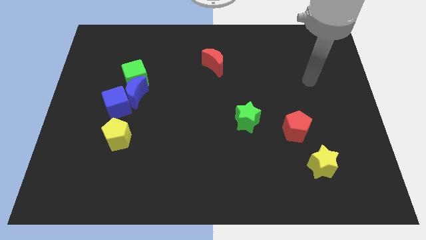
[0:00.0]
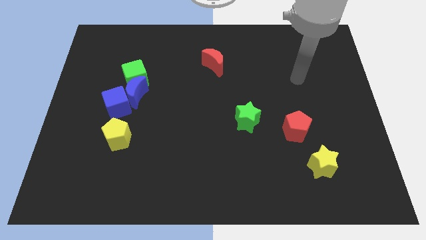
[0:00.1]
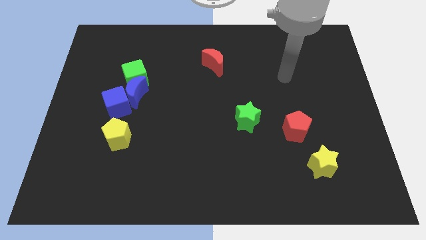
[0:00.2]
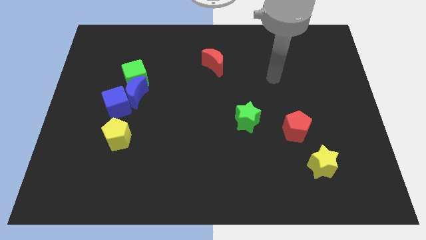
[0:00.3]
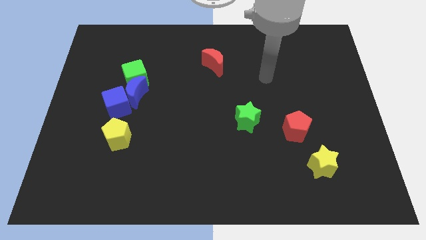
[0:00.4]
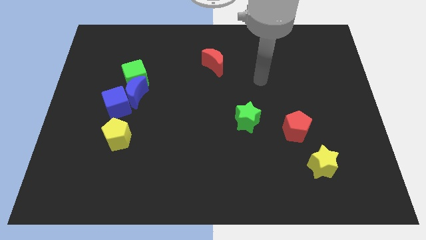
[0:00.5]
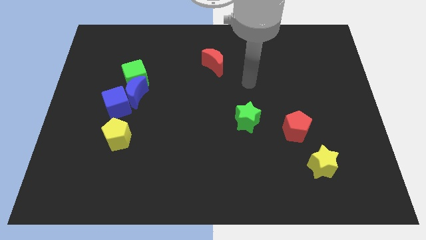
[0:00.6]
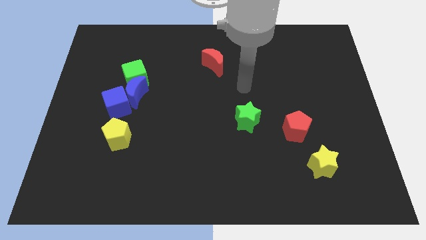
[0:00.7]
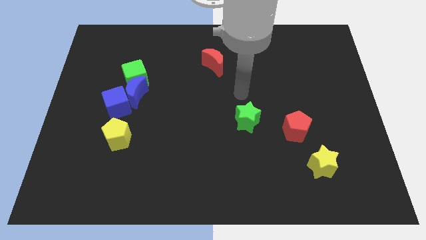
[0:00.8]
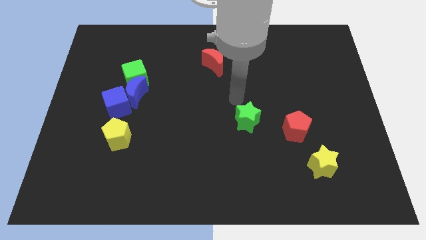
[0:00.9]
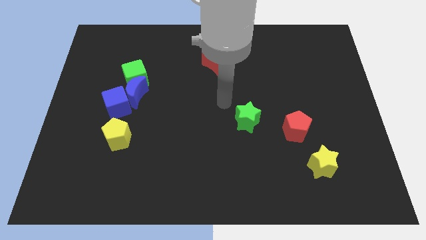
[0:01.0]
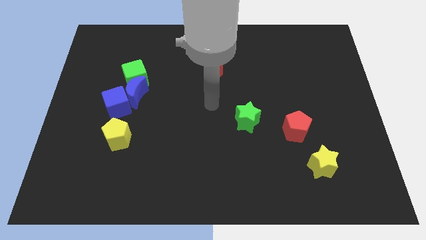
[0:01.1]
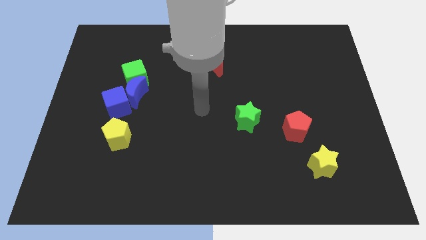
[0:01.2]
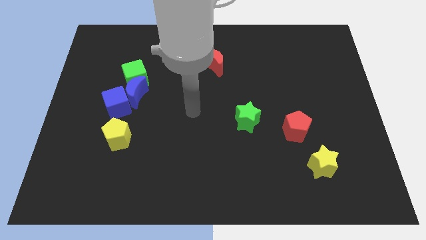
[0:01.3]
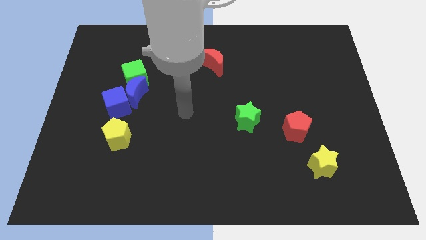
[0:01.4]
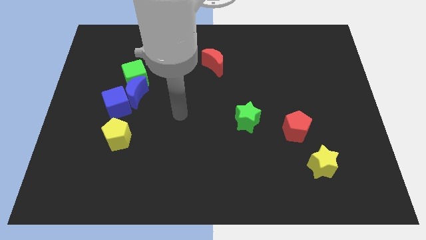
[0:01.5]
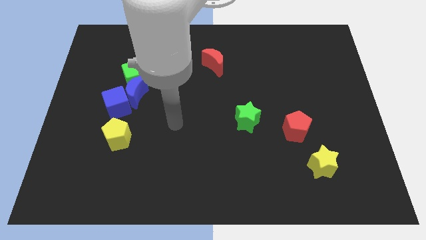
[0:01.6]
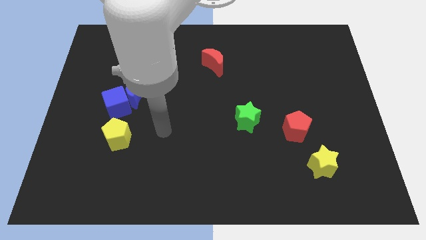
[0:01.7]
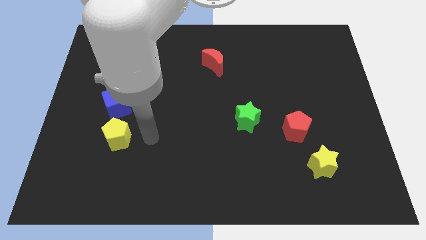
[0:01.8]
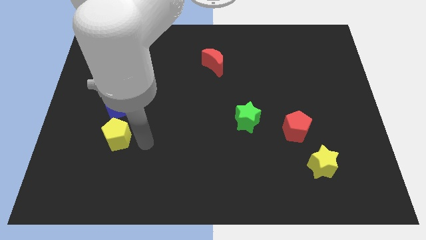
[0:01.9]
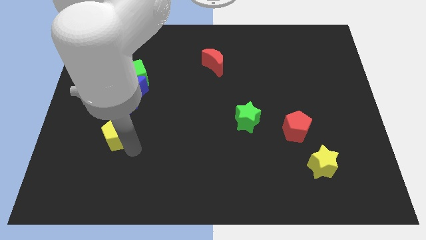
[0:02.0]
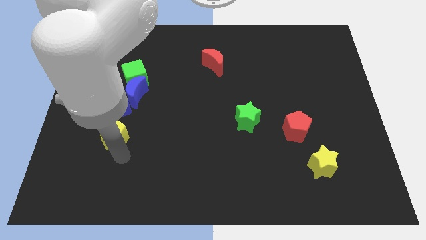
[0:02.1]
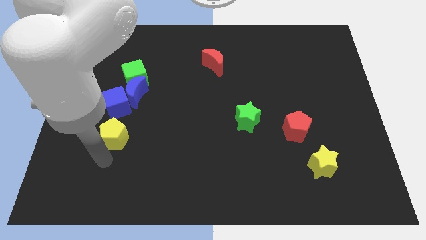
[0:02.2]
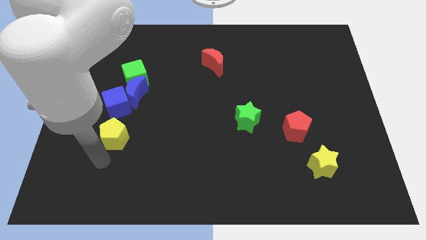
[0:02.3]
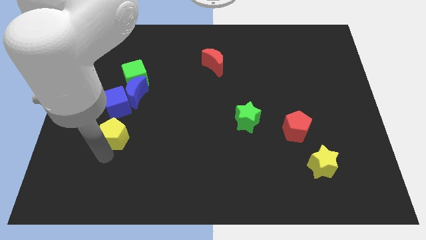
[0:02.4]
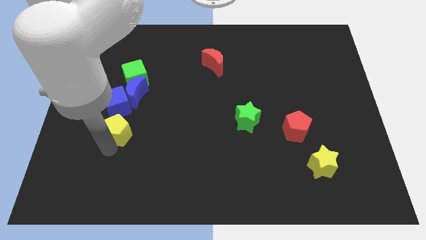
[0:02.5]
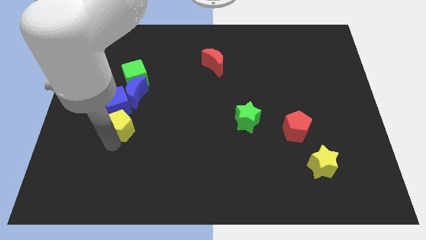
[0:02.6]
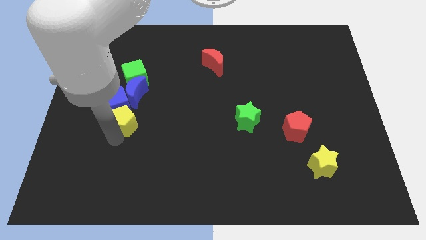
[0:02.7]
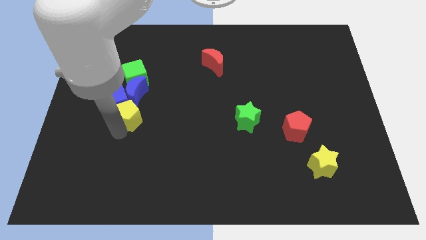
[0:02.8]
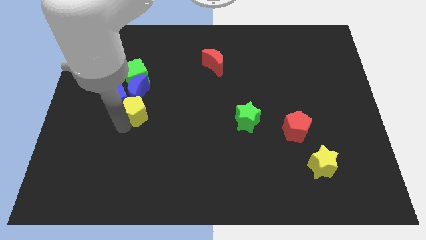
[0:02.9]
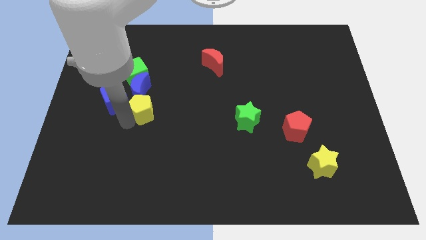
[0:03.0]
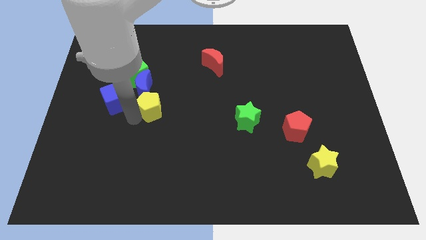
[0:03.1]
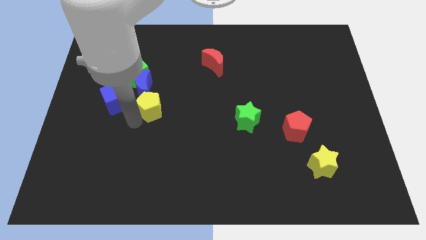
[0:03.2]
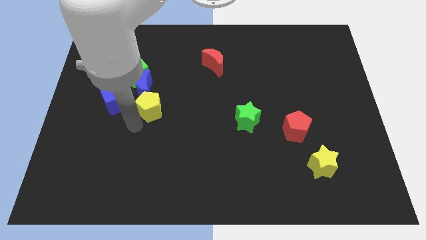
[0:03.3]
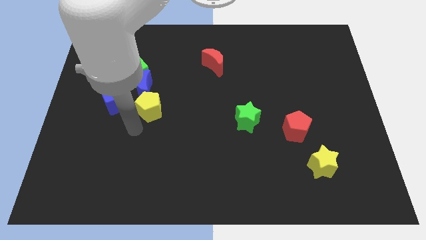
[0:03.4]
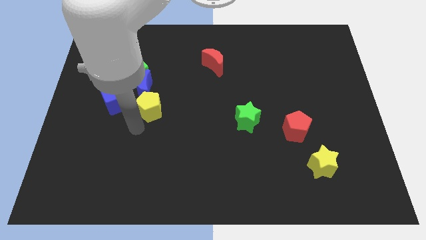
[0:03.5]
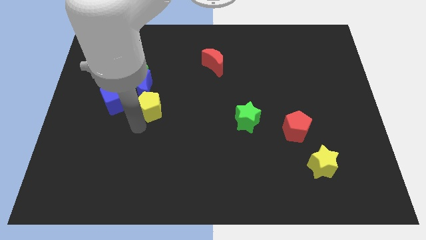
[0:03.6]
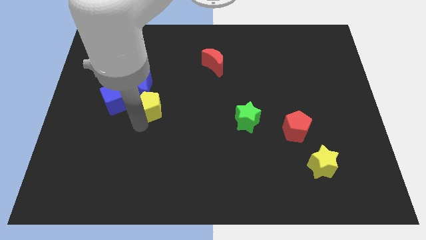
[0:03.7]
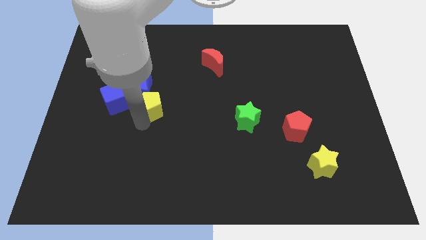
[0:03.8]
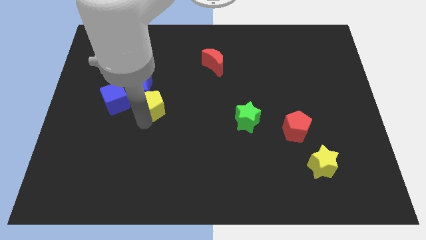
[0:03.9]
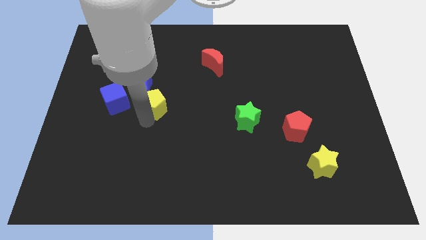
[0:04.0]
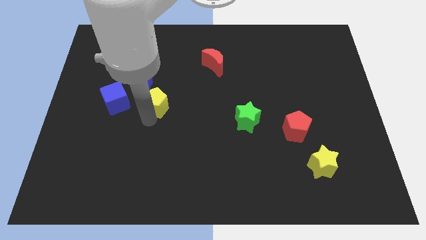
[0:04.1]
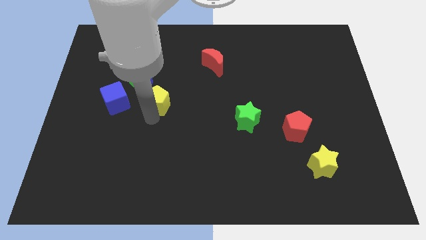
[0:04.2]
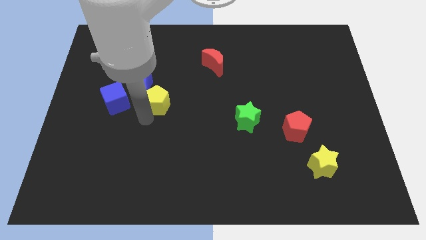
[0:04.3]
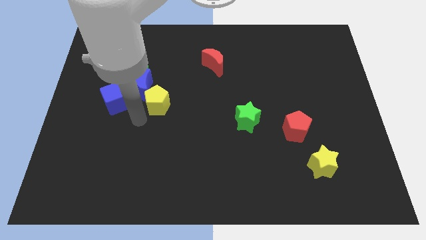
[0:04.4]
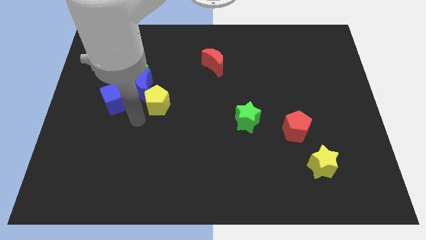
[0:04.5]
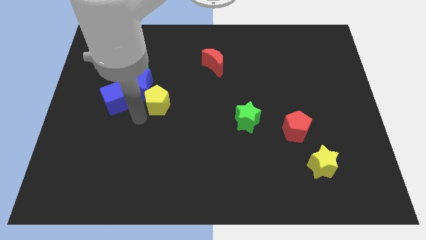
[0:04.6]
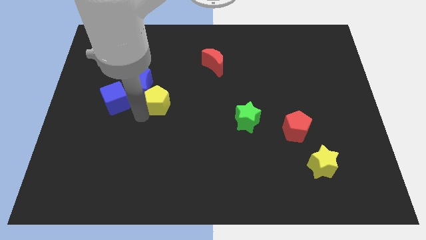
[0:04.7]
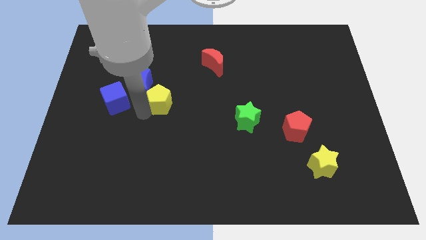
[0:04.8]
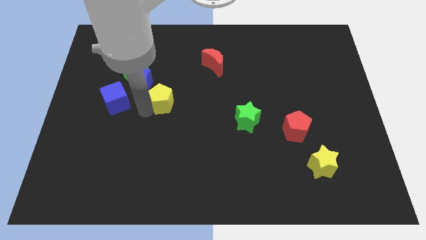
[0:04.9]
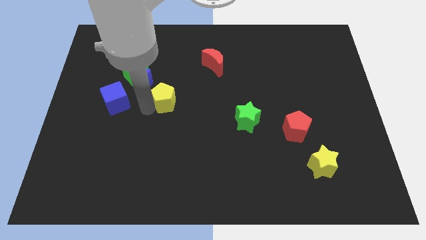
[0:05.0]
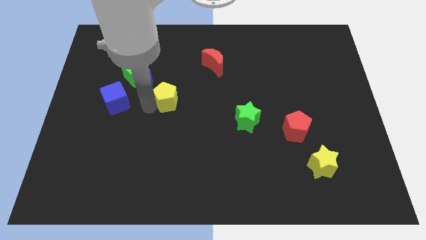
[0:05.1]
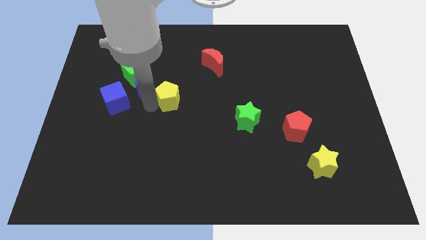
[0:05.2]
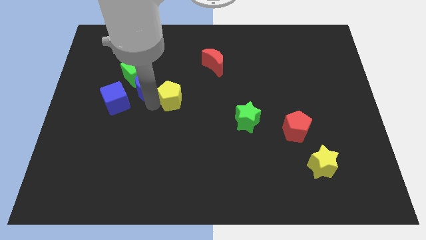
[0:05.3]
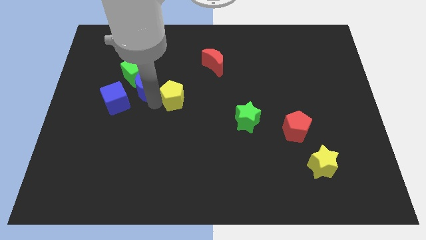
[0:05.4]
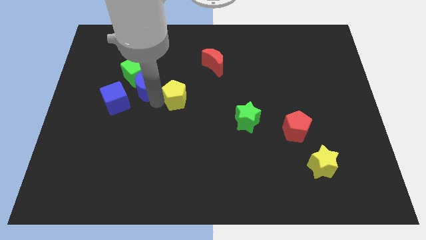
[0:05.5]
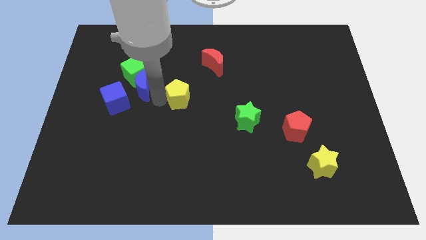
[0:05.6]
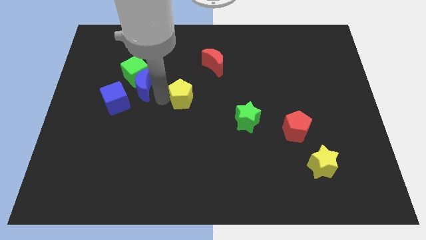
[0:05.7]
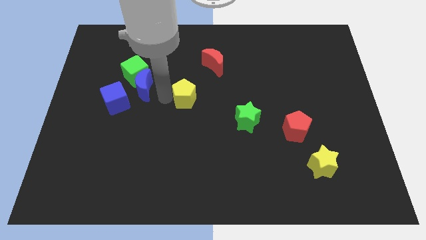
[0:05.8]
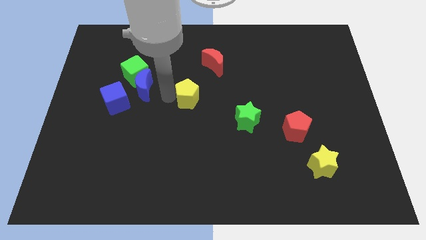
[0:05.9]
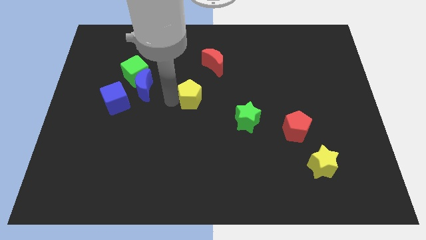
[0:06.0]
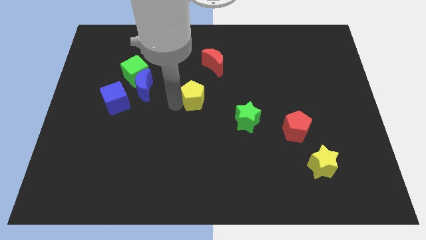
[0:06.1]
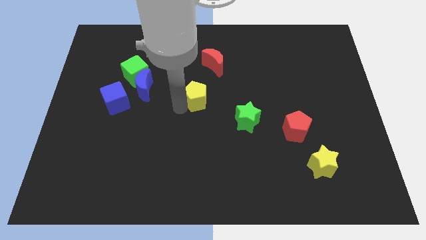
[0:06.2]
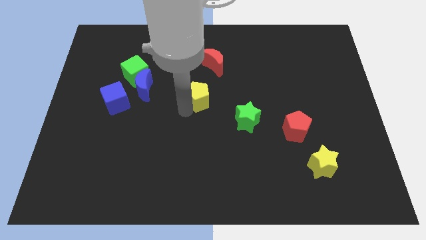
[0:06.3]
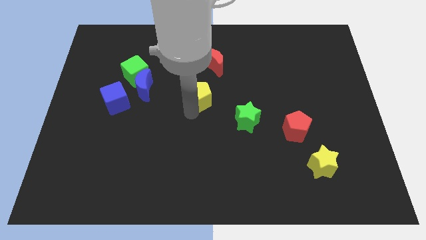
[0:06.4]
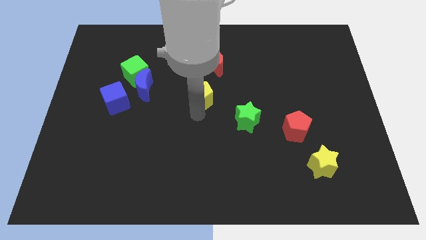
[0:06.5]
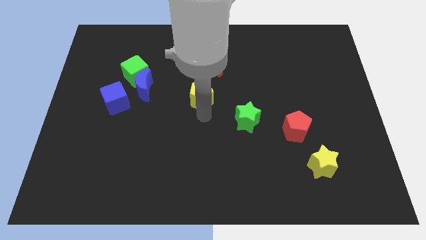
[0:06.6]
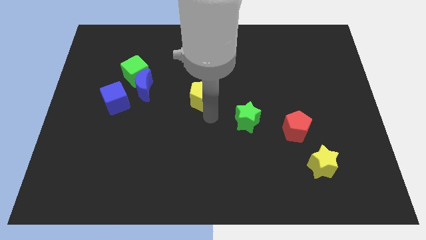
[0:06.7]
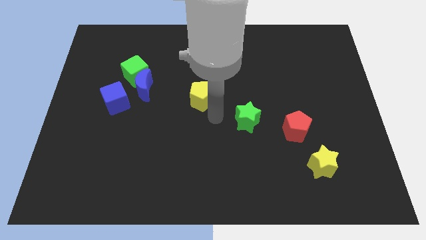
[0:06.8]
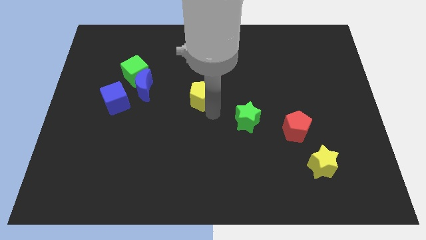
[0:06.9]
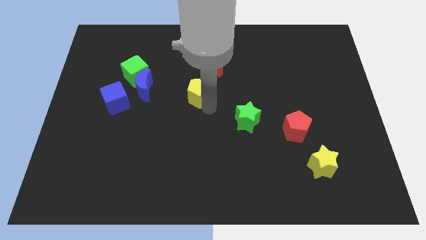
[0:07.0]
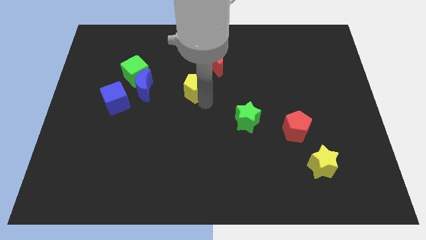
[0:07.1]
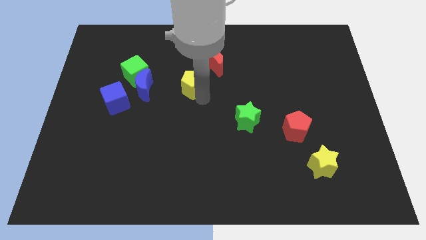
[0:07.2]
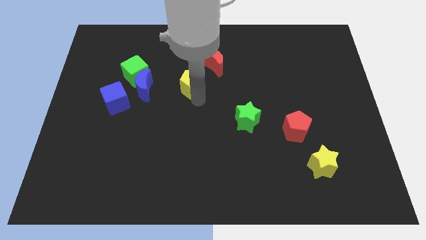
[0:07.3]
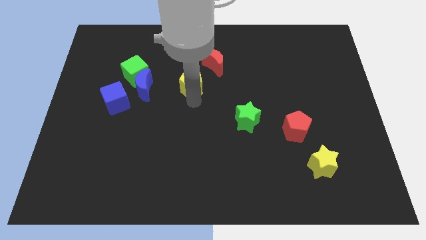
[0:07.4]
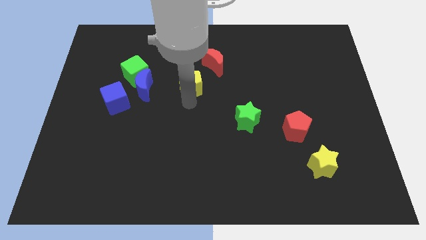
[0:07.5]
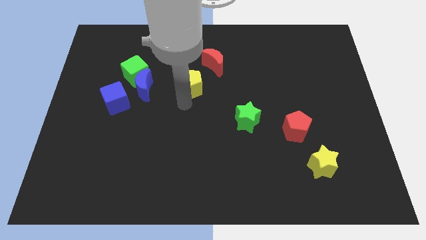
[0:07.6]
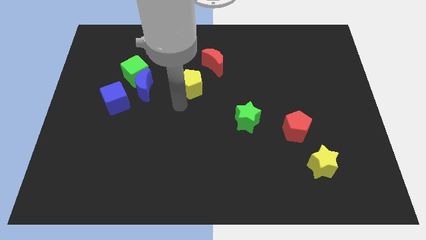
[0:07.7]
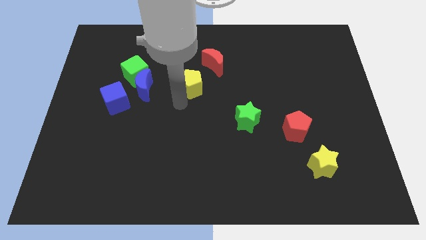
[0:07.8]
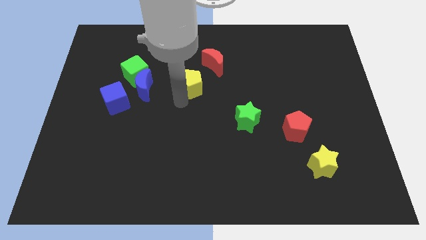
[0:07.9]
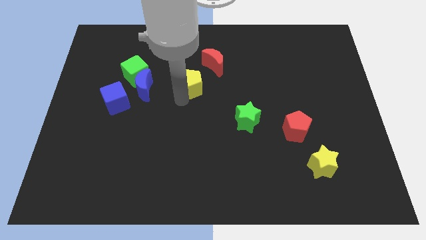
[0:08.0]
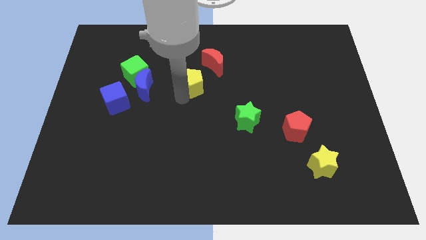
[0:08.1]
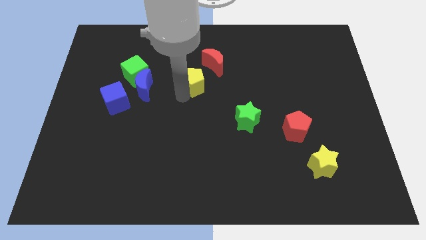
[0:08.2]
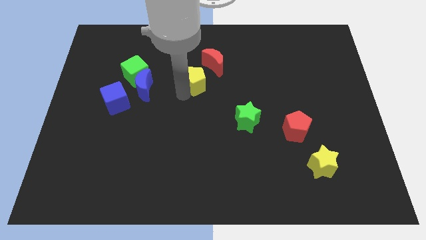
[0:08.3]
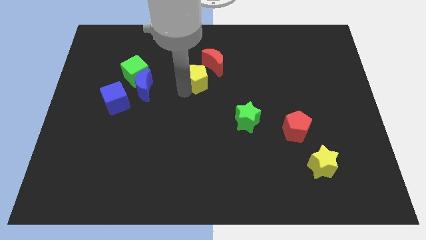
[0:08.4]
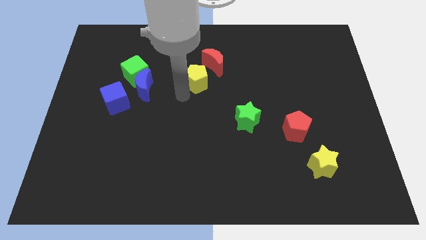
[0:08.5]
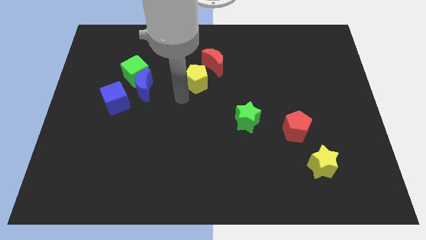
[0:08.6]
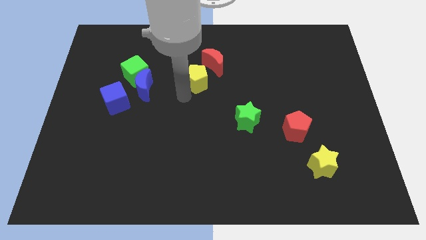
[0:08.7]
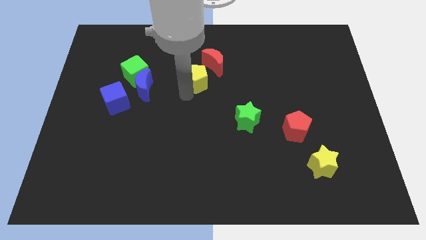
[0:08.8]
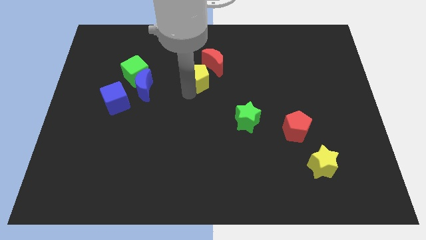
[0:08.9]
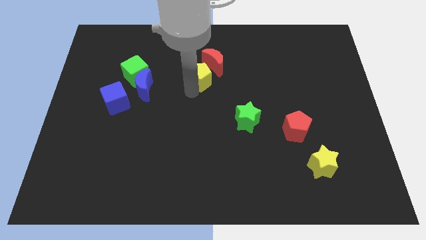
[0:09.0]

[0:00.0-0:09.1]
push the yellow pentagon close to the red moon
